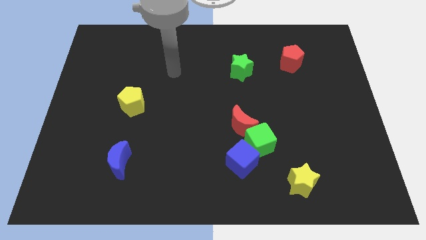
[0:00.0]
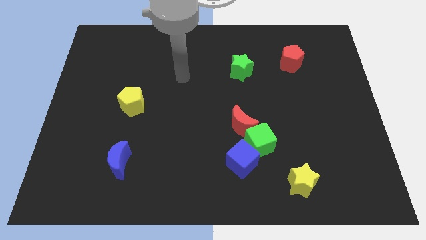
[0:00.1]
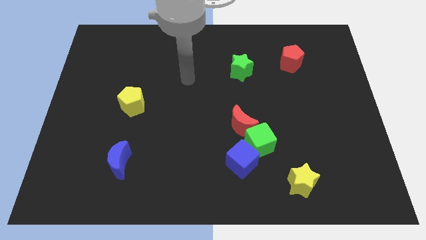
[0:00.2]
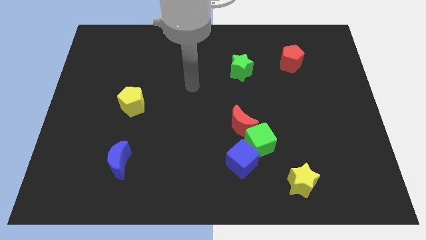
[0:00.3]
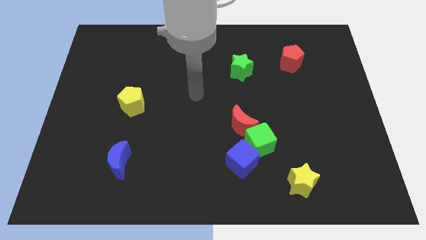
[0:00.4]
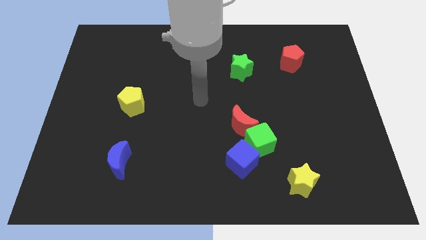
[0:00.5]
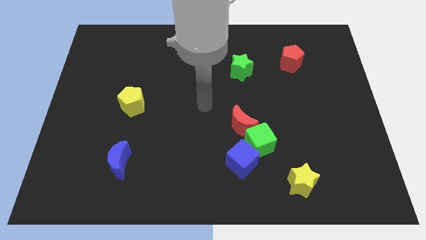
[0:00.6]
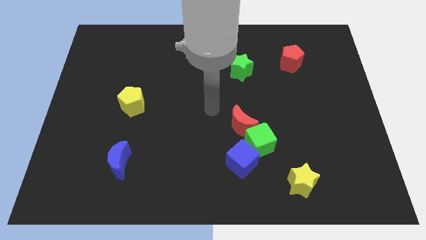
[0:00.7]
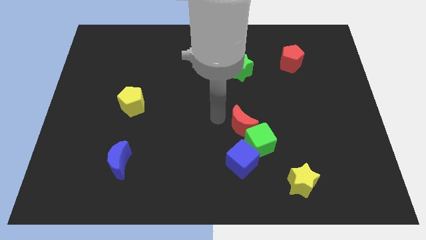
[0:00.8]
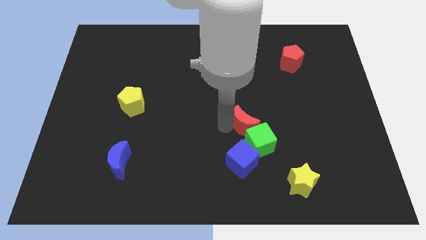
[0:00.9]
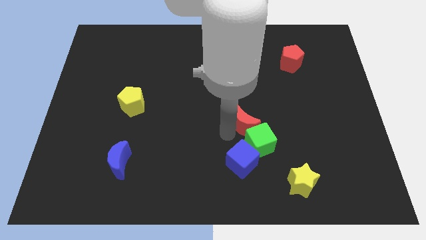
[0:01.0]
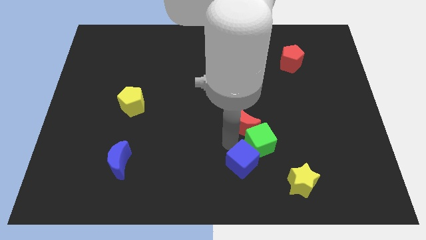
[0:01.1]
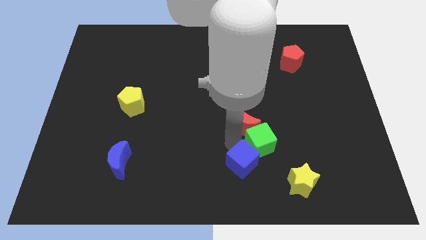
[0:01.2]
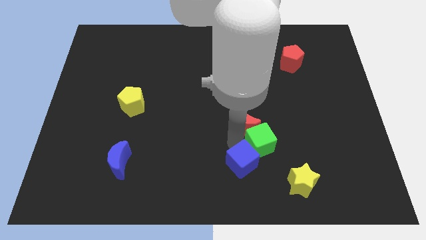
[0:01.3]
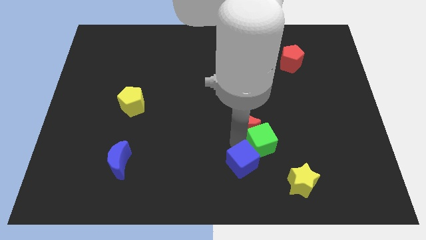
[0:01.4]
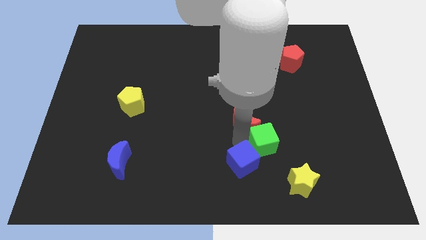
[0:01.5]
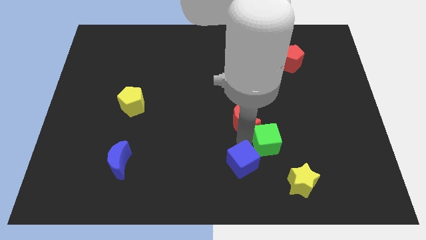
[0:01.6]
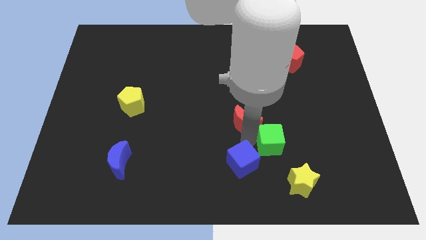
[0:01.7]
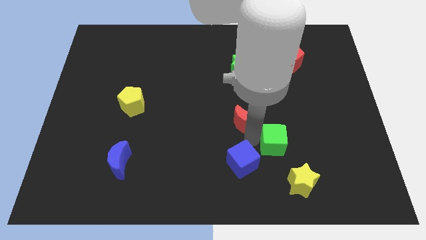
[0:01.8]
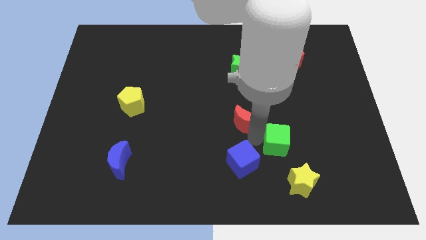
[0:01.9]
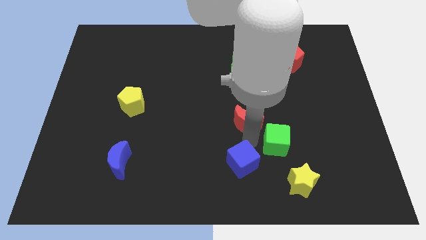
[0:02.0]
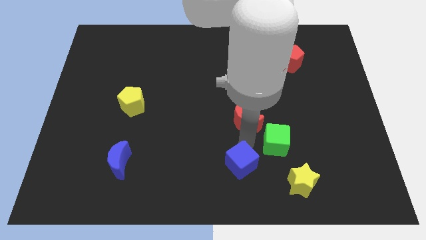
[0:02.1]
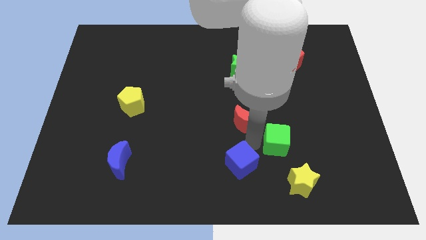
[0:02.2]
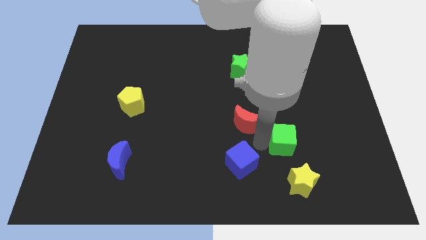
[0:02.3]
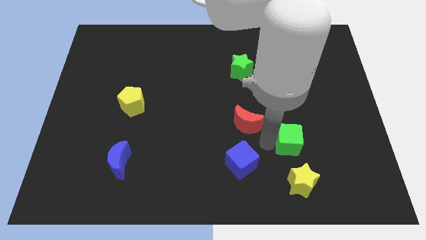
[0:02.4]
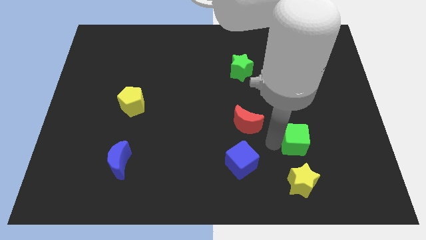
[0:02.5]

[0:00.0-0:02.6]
pull the green cube apart from the red moon and blue cube

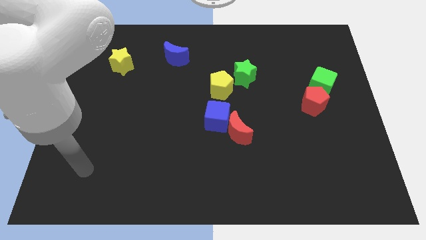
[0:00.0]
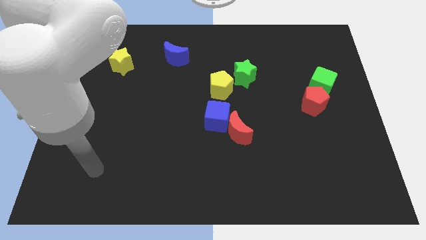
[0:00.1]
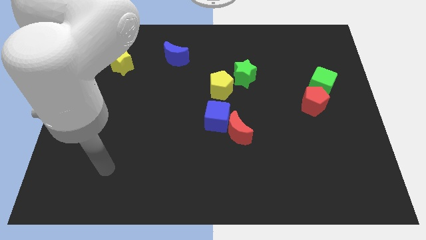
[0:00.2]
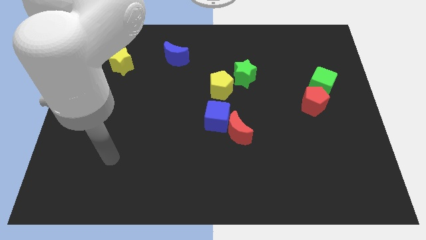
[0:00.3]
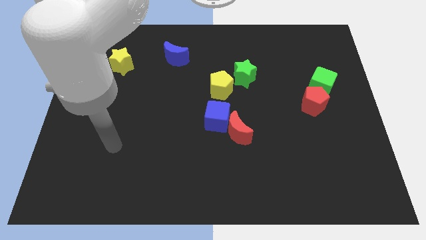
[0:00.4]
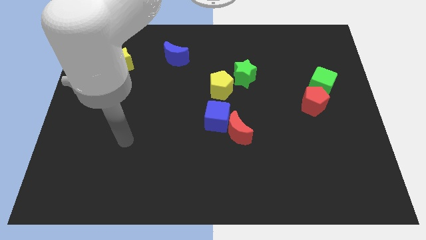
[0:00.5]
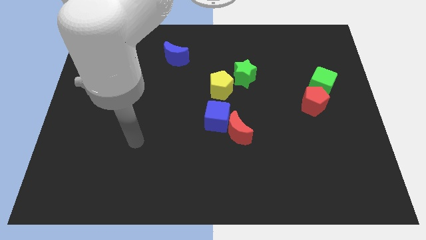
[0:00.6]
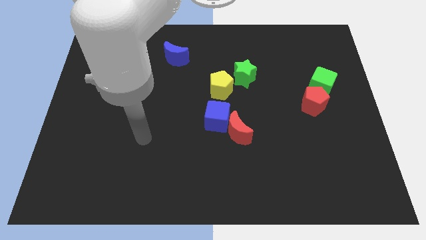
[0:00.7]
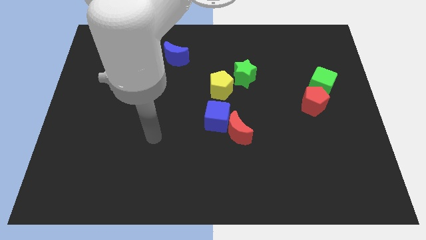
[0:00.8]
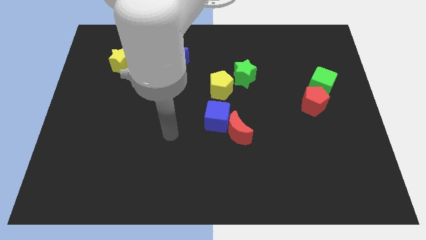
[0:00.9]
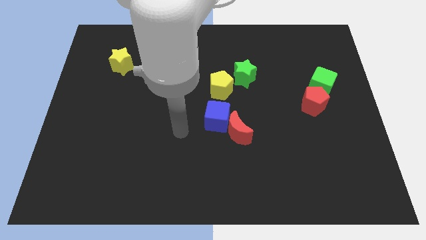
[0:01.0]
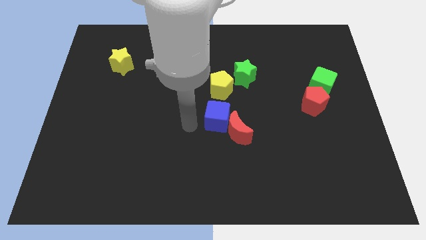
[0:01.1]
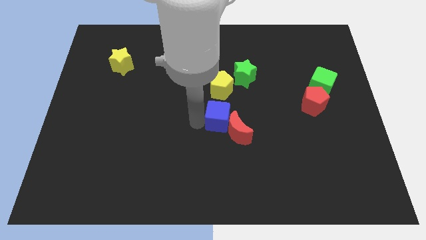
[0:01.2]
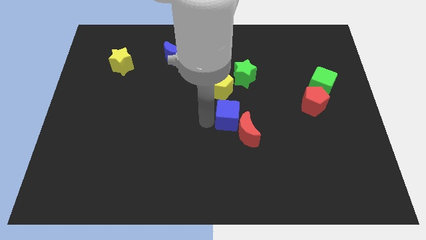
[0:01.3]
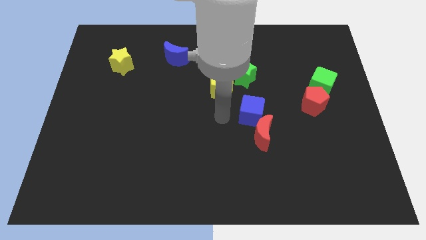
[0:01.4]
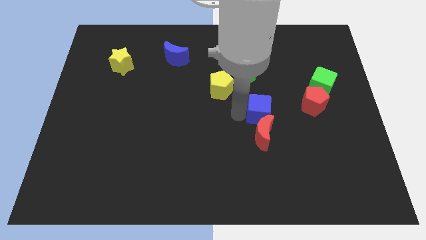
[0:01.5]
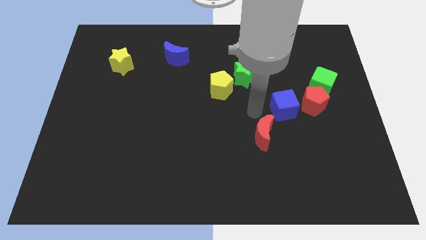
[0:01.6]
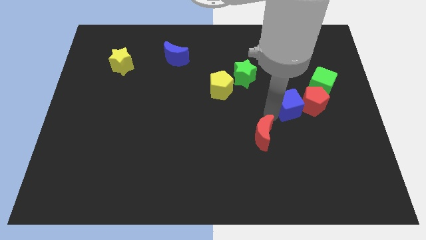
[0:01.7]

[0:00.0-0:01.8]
separate the red moon from the blue cube

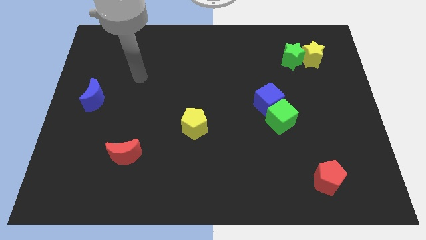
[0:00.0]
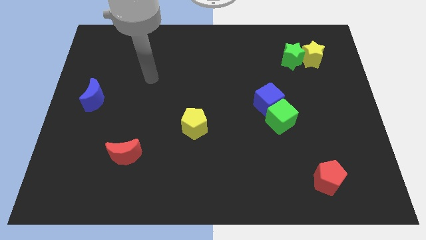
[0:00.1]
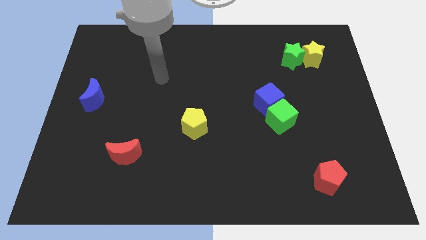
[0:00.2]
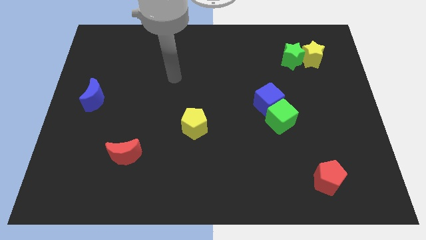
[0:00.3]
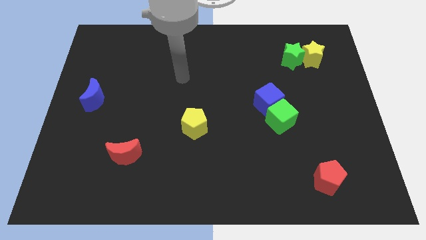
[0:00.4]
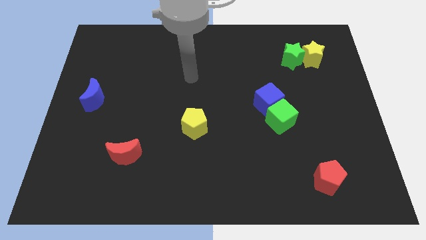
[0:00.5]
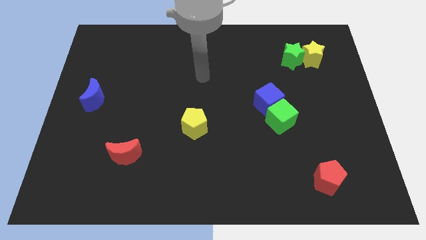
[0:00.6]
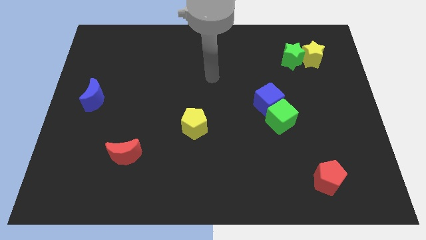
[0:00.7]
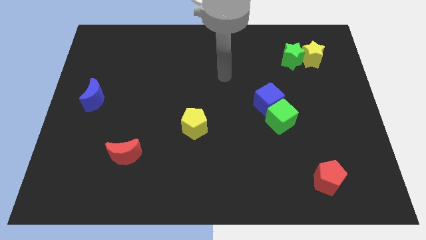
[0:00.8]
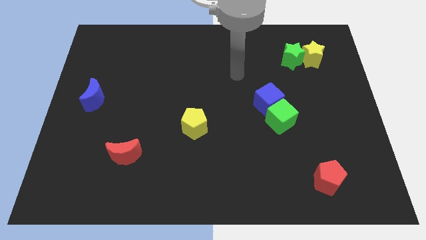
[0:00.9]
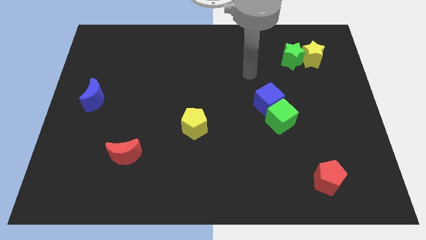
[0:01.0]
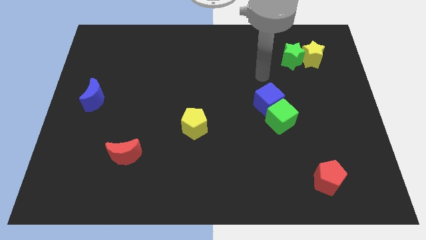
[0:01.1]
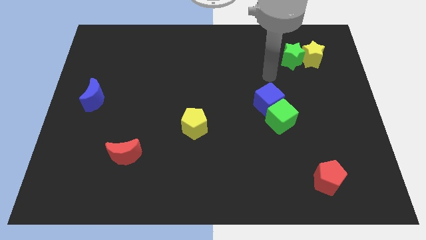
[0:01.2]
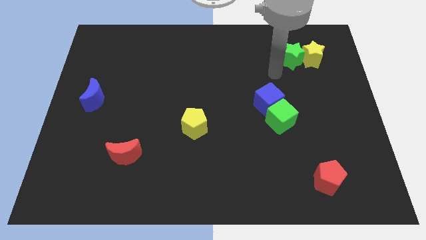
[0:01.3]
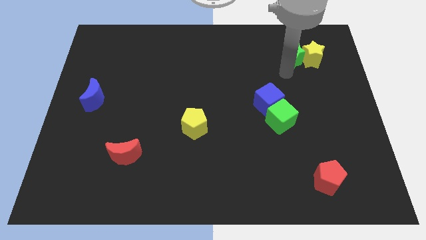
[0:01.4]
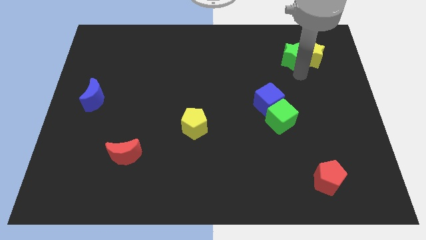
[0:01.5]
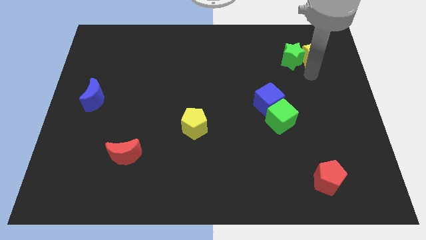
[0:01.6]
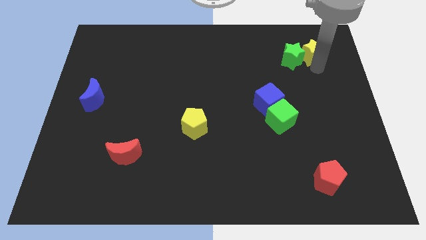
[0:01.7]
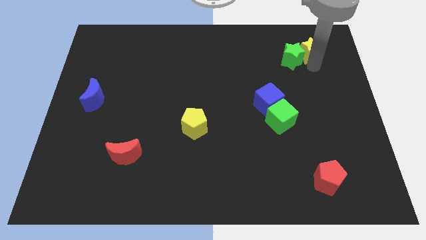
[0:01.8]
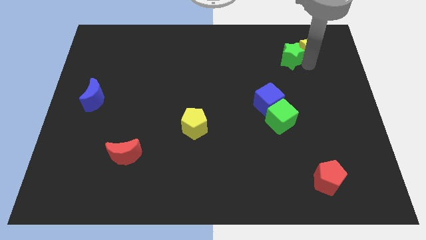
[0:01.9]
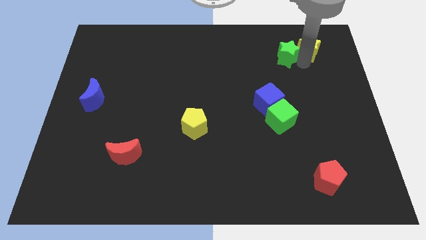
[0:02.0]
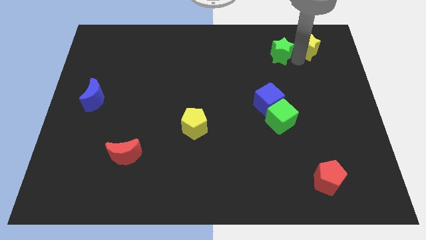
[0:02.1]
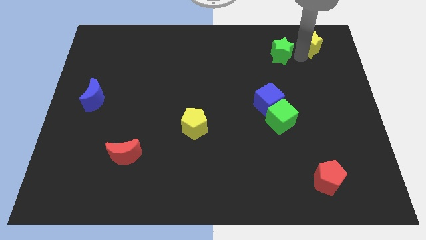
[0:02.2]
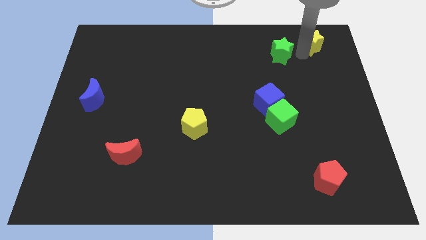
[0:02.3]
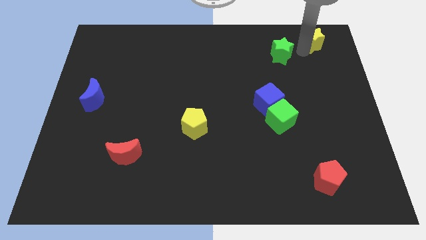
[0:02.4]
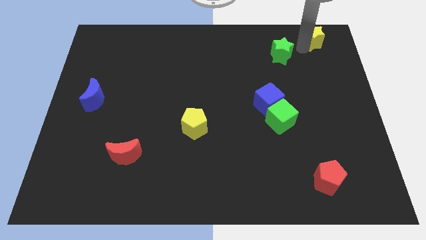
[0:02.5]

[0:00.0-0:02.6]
pull the green star apart from the yellow star

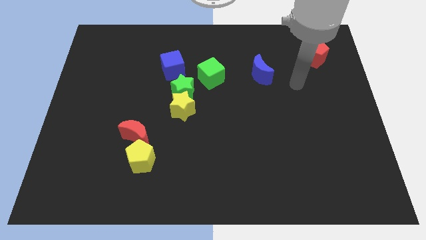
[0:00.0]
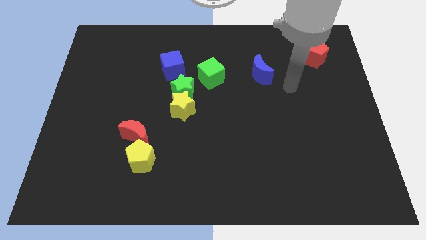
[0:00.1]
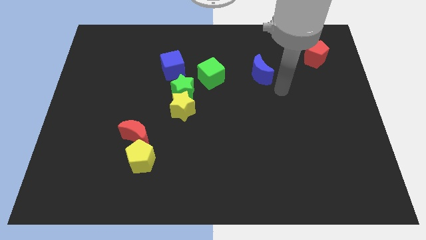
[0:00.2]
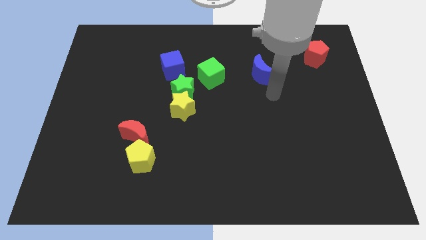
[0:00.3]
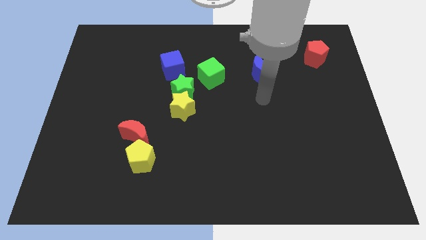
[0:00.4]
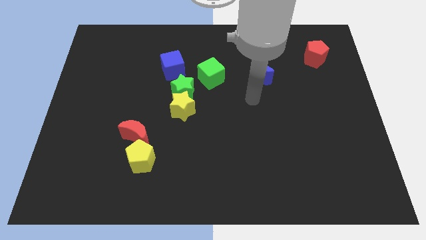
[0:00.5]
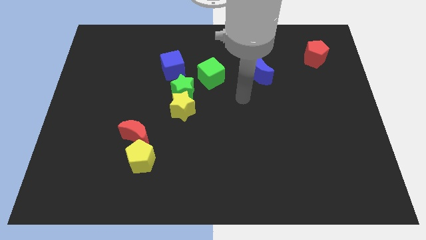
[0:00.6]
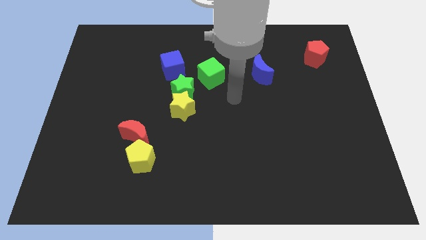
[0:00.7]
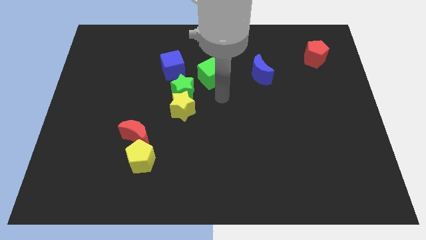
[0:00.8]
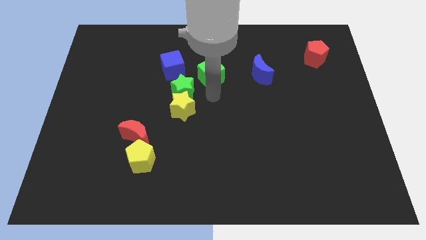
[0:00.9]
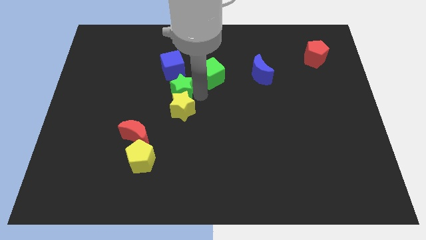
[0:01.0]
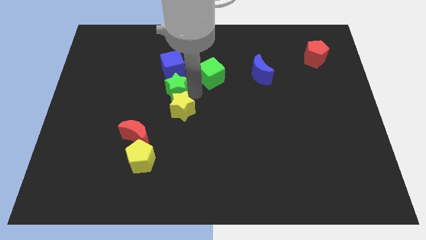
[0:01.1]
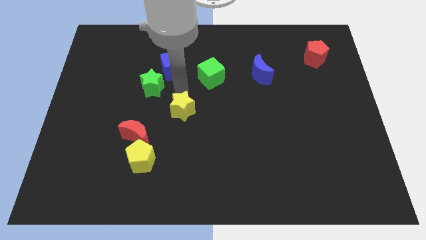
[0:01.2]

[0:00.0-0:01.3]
move the yellow star away from the green star

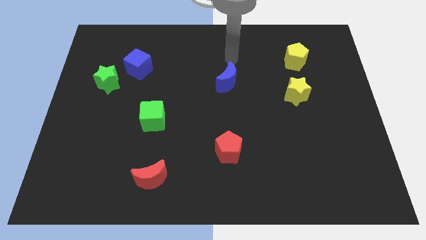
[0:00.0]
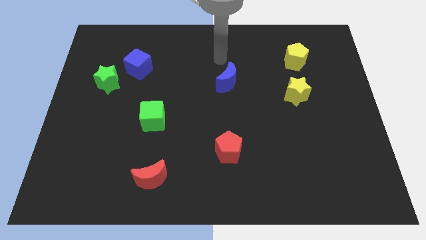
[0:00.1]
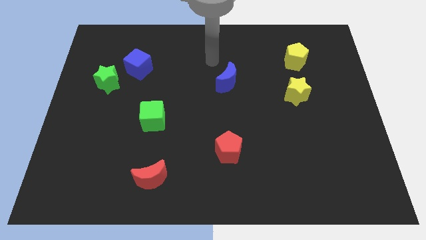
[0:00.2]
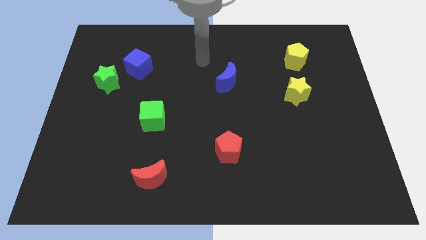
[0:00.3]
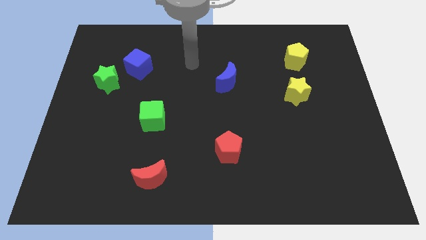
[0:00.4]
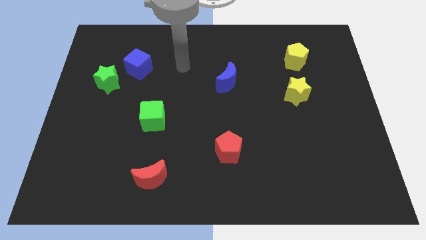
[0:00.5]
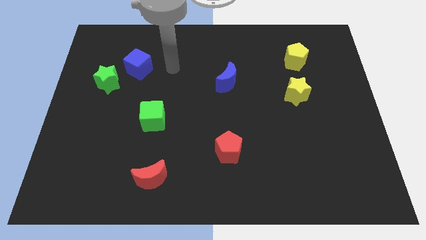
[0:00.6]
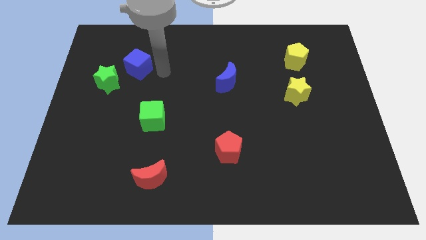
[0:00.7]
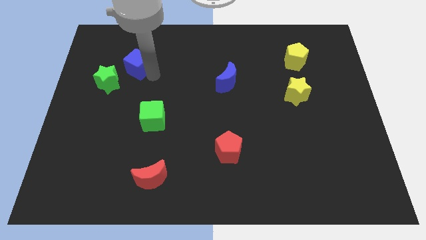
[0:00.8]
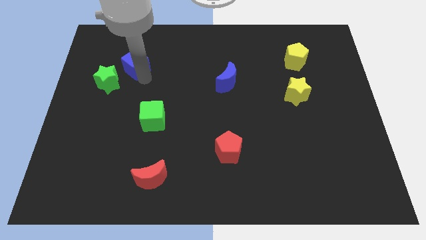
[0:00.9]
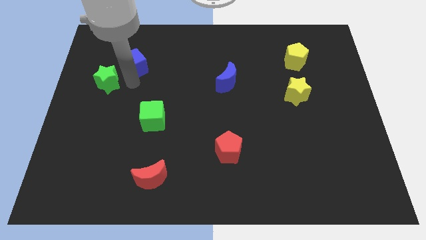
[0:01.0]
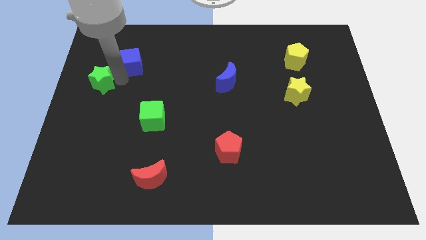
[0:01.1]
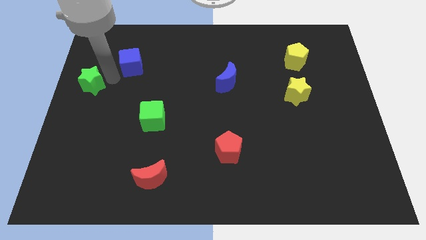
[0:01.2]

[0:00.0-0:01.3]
move the blue cube away from the green star

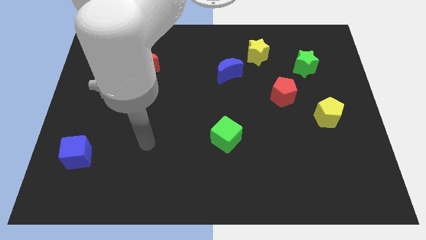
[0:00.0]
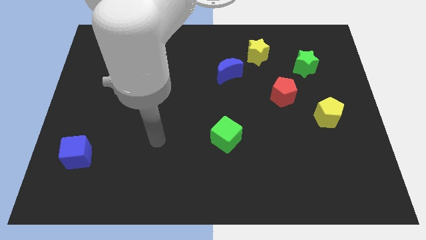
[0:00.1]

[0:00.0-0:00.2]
separate the blue moon from the yellow star
